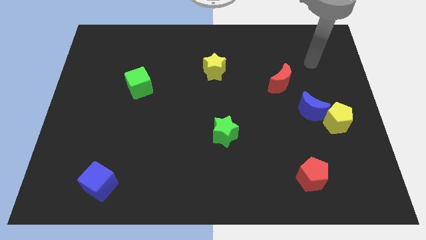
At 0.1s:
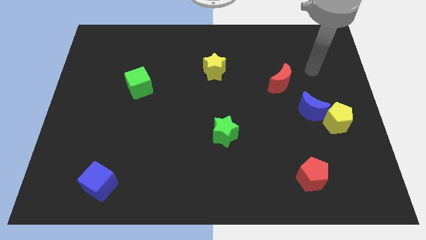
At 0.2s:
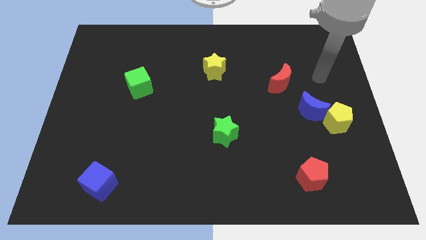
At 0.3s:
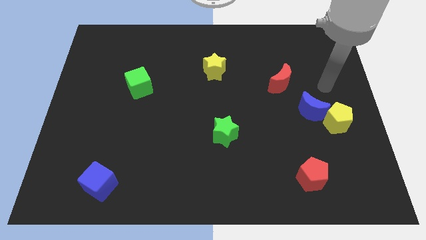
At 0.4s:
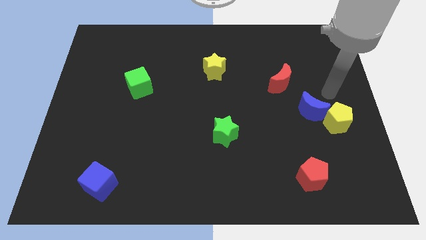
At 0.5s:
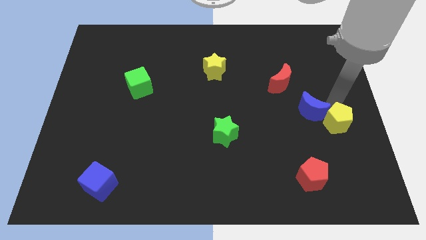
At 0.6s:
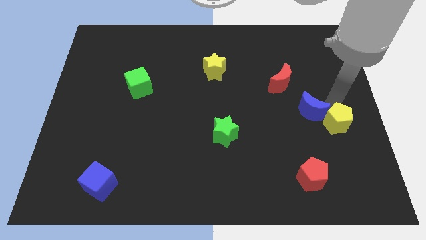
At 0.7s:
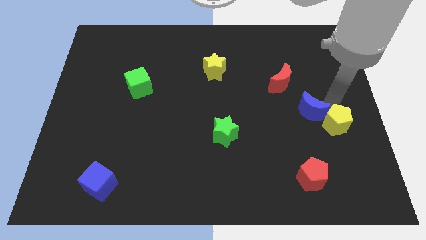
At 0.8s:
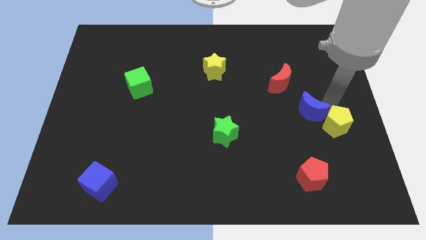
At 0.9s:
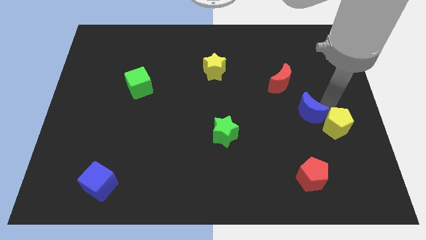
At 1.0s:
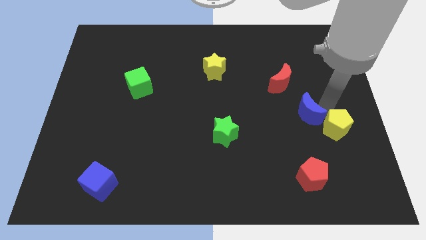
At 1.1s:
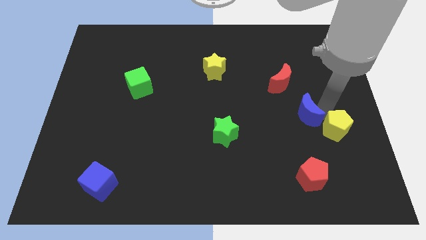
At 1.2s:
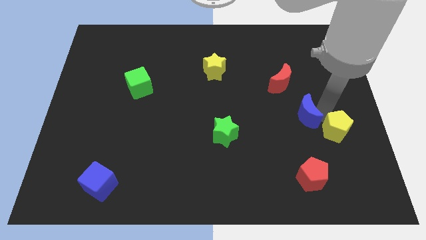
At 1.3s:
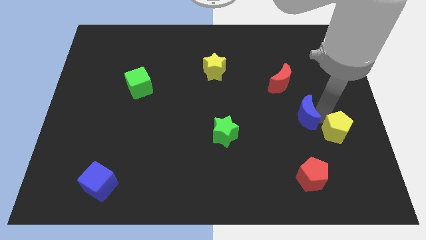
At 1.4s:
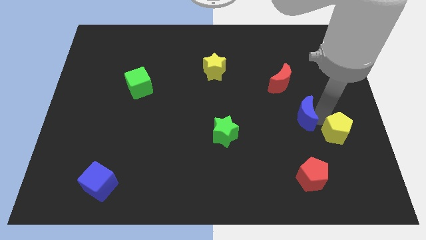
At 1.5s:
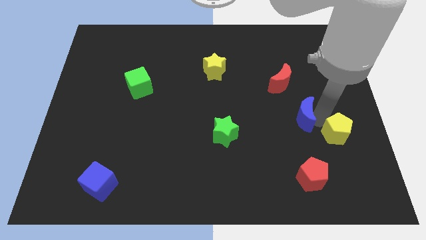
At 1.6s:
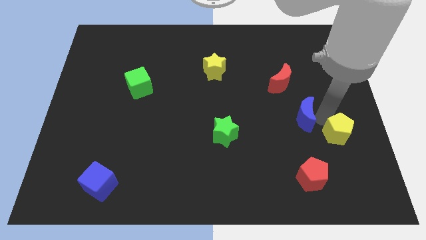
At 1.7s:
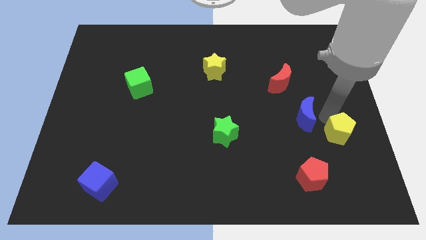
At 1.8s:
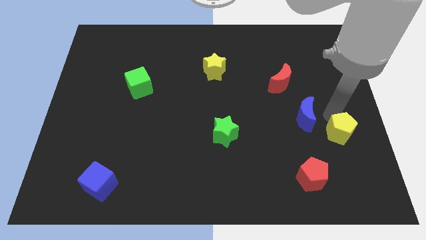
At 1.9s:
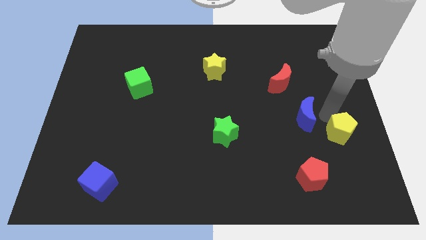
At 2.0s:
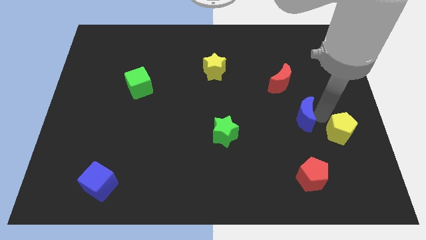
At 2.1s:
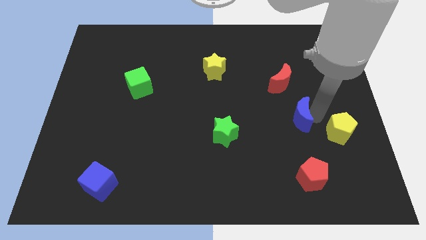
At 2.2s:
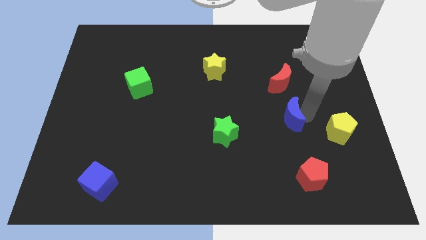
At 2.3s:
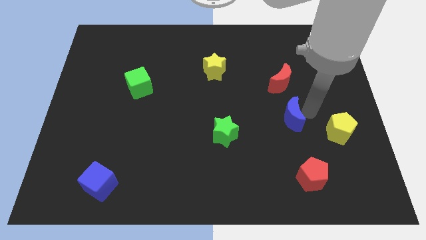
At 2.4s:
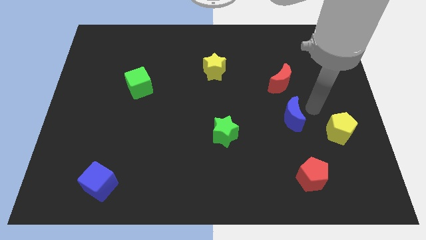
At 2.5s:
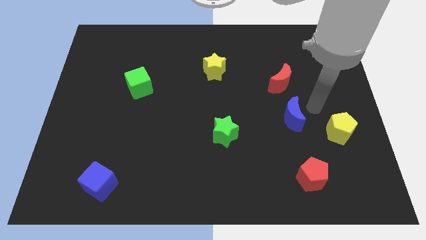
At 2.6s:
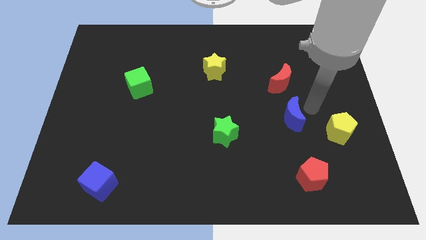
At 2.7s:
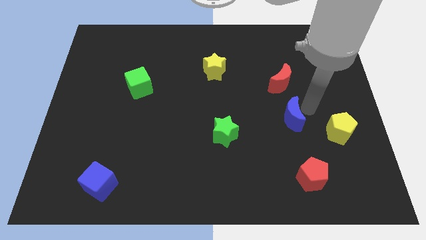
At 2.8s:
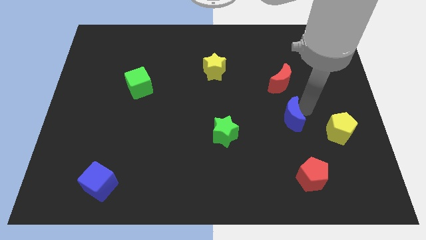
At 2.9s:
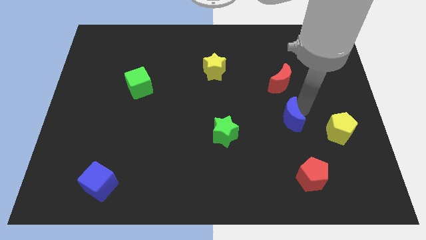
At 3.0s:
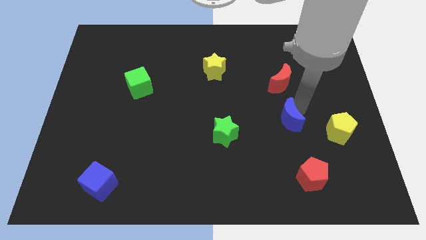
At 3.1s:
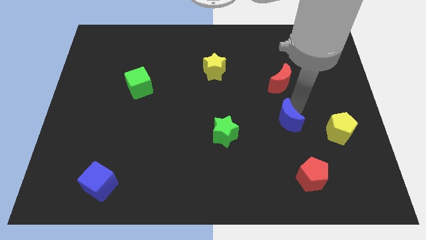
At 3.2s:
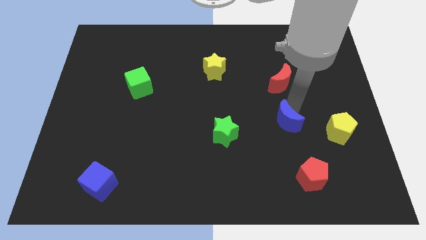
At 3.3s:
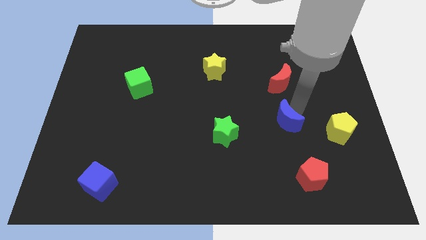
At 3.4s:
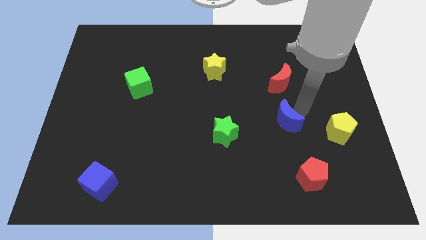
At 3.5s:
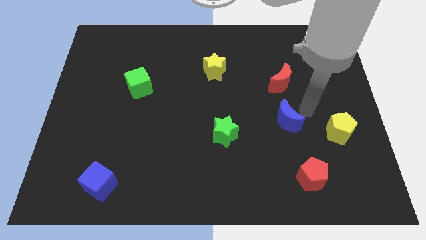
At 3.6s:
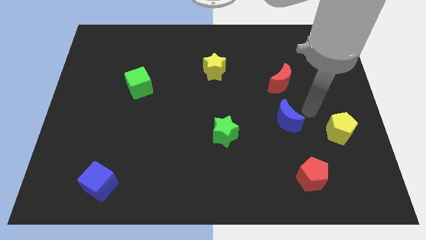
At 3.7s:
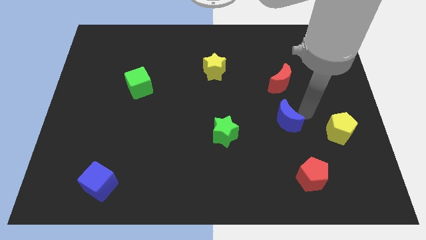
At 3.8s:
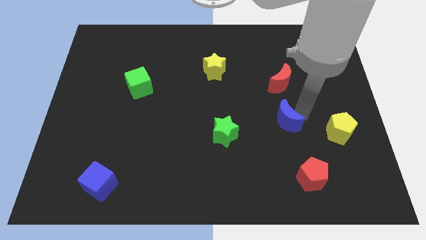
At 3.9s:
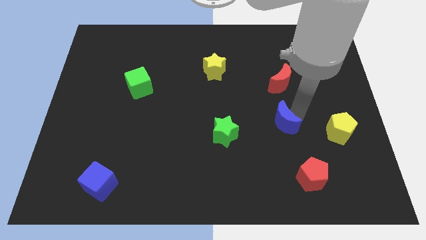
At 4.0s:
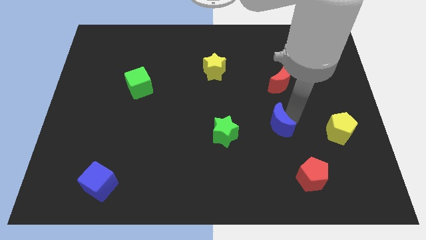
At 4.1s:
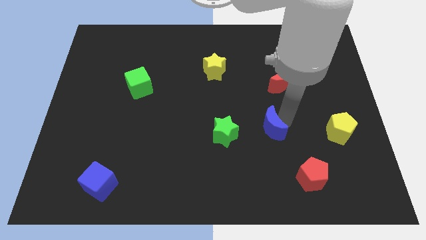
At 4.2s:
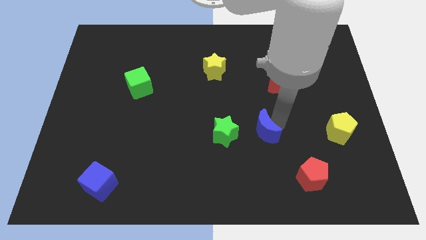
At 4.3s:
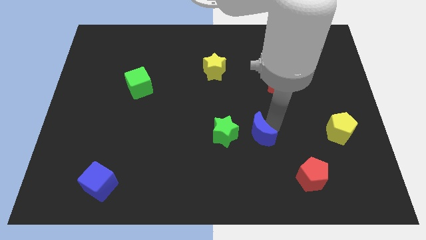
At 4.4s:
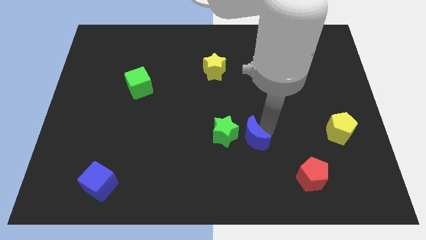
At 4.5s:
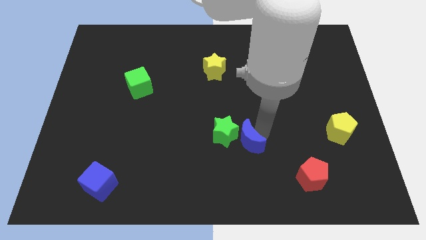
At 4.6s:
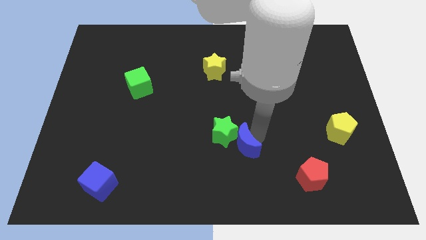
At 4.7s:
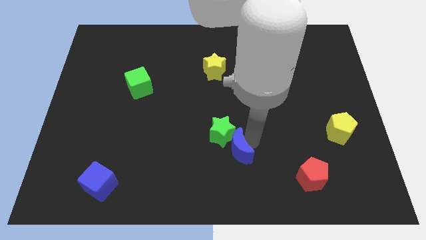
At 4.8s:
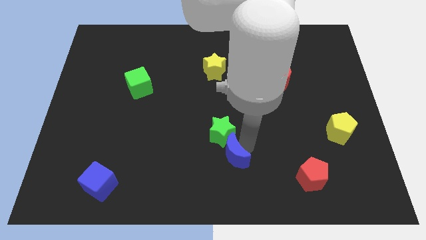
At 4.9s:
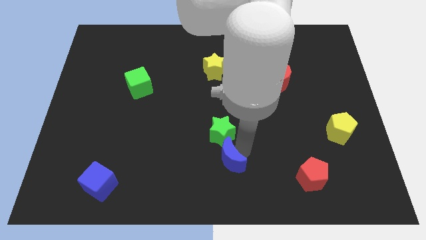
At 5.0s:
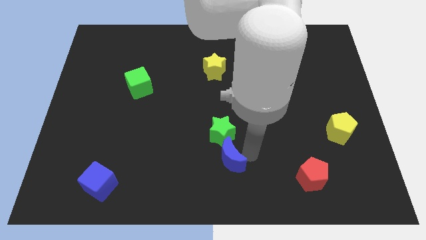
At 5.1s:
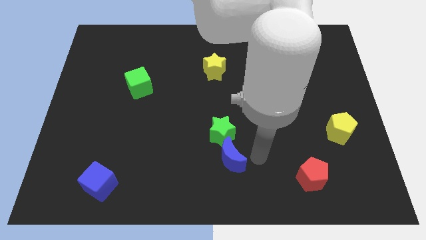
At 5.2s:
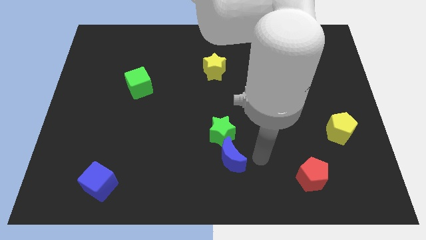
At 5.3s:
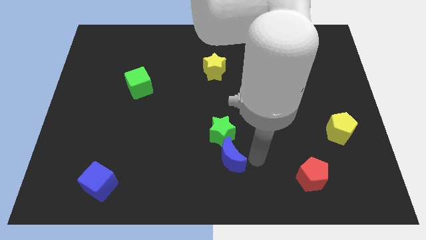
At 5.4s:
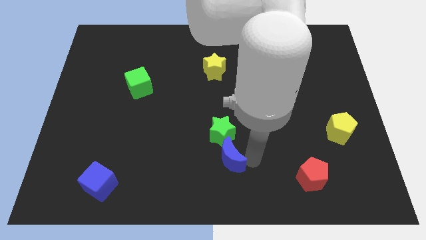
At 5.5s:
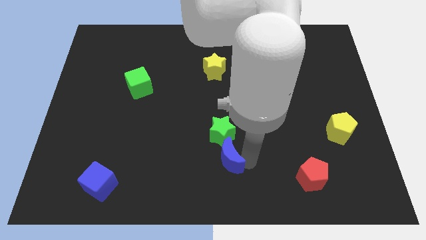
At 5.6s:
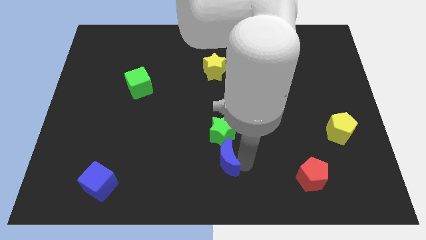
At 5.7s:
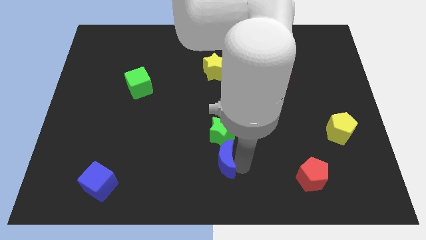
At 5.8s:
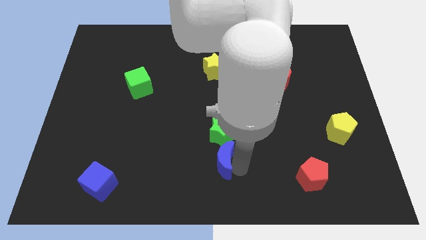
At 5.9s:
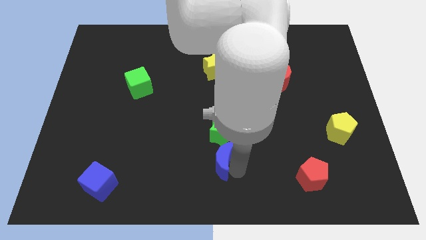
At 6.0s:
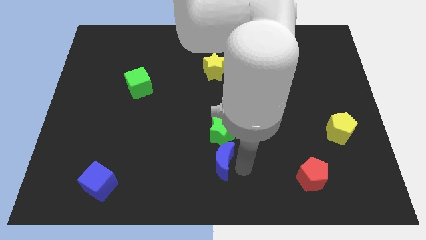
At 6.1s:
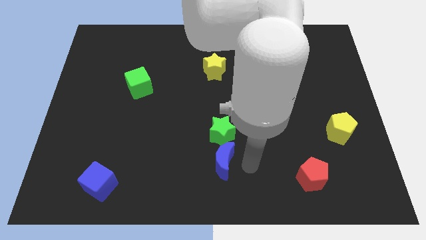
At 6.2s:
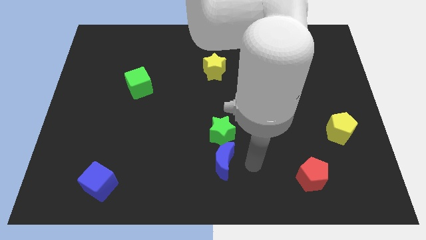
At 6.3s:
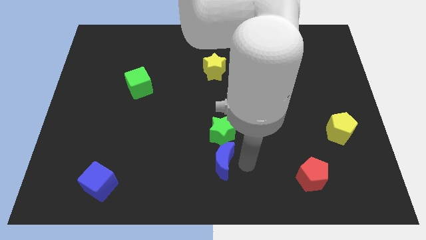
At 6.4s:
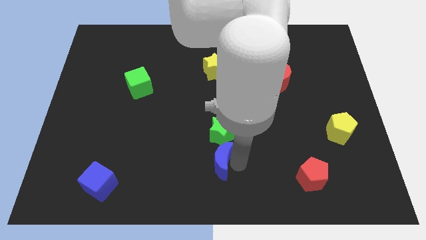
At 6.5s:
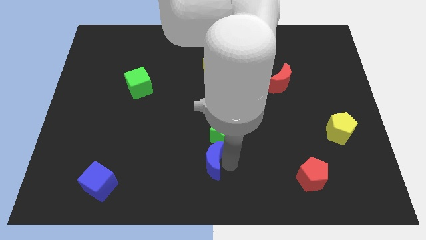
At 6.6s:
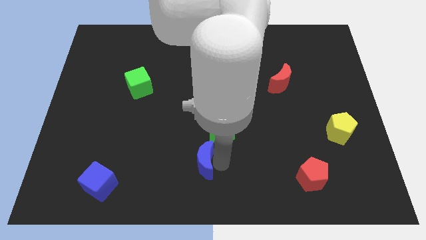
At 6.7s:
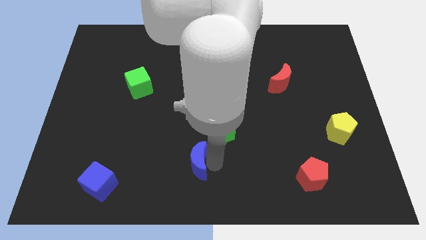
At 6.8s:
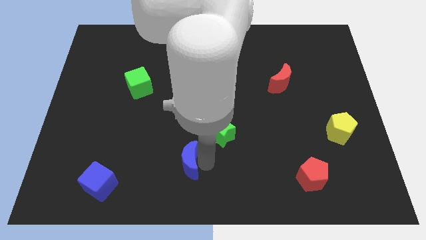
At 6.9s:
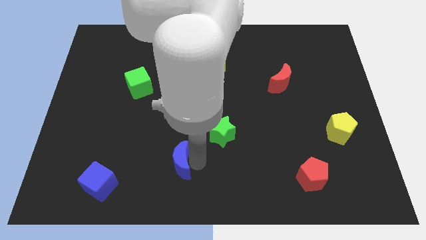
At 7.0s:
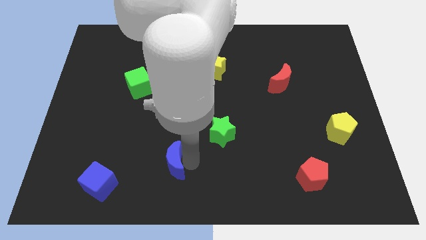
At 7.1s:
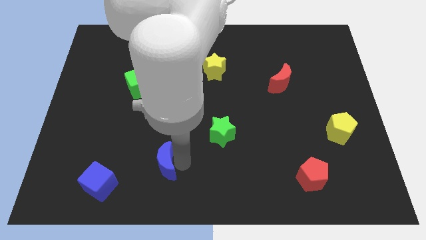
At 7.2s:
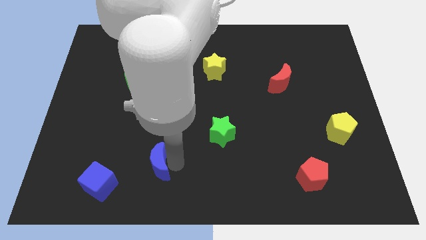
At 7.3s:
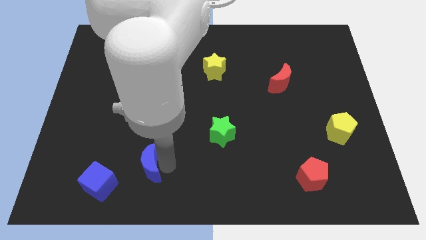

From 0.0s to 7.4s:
put the blue moon to the top right of the blue cube

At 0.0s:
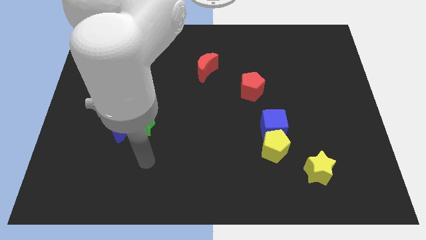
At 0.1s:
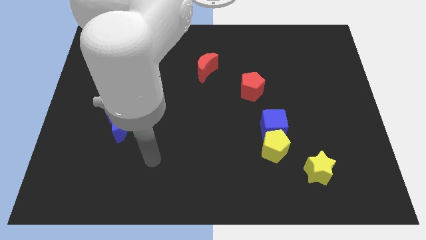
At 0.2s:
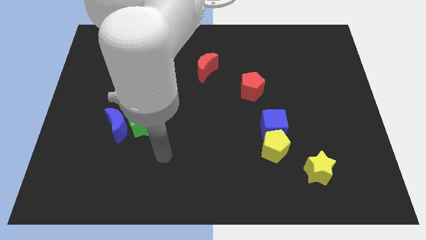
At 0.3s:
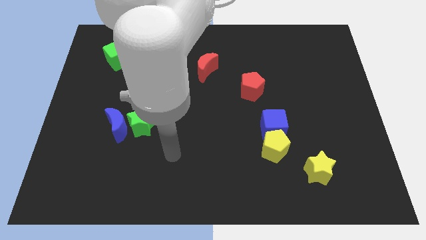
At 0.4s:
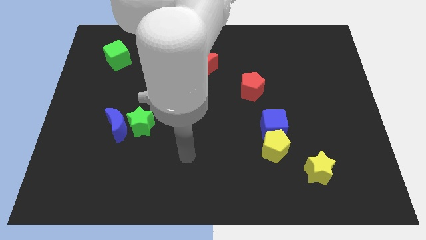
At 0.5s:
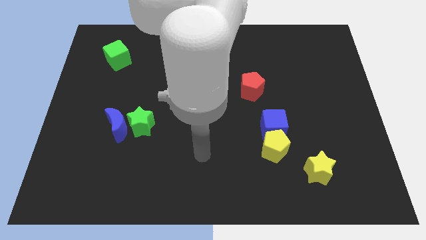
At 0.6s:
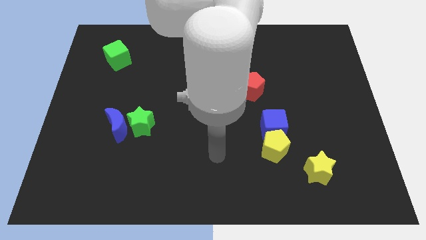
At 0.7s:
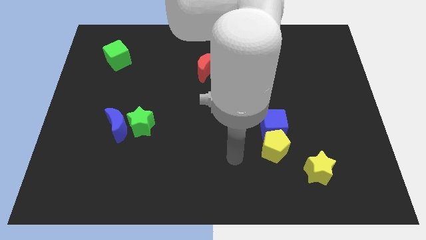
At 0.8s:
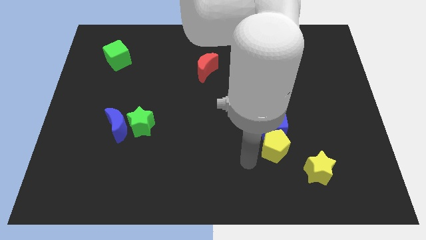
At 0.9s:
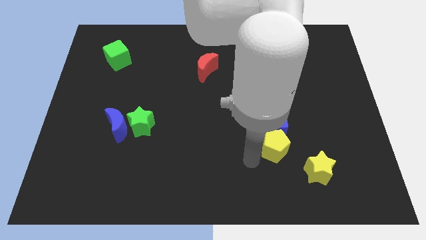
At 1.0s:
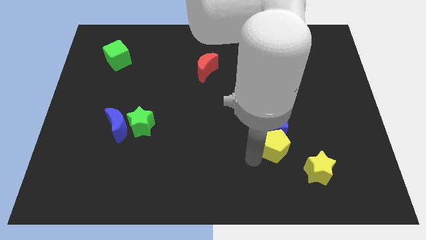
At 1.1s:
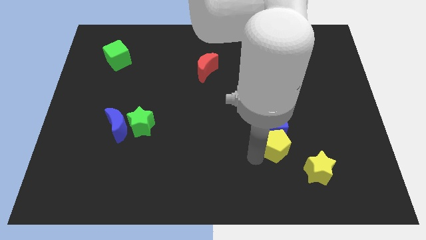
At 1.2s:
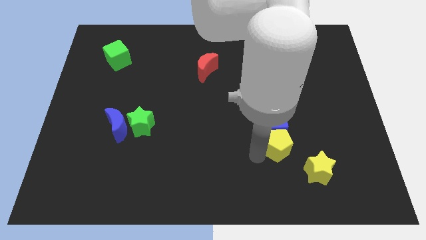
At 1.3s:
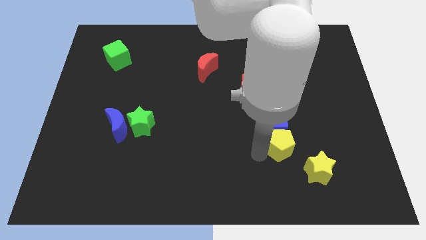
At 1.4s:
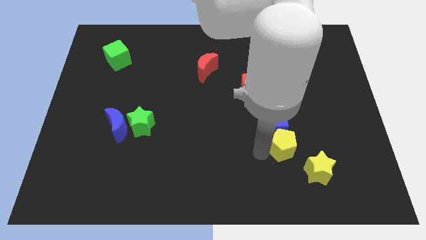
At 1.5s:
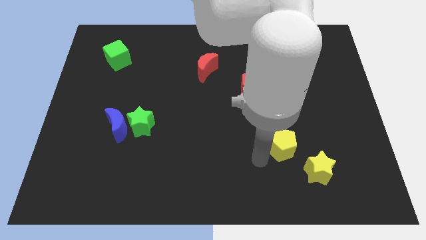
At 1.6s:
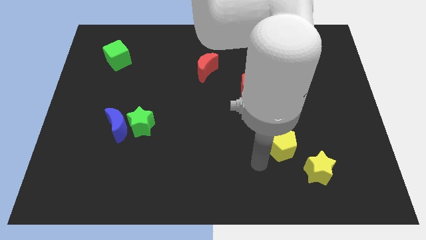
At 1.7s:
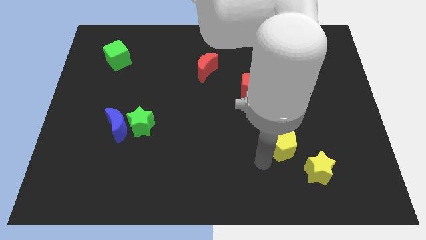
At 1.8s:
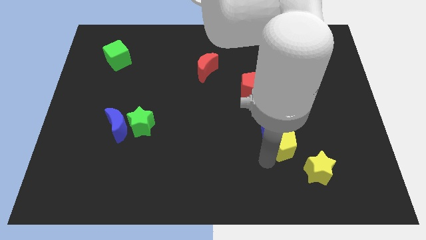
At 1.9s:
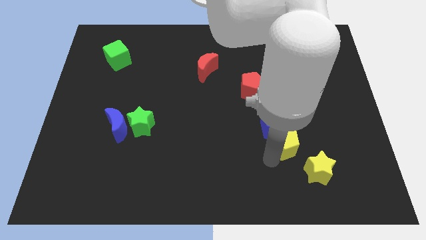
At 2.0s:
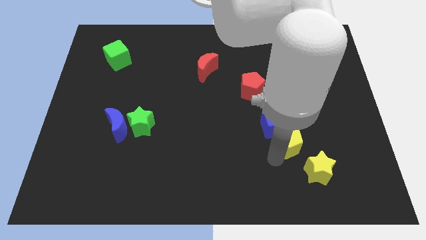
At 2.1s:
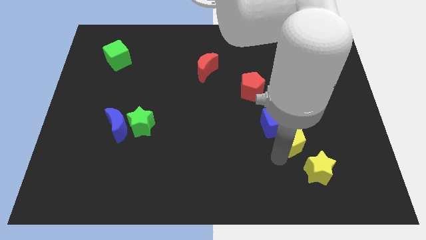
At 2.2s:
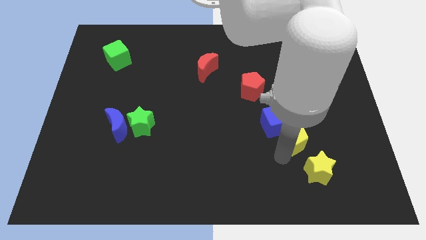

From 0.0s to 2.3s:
push the yellow pentagon to the top side of the yellow star
